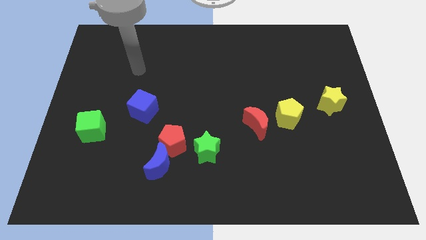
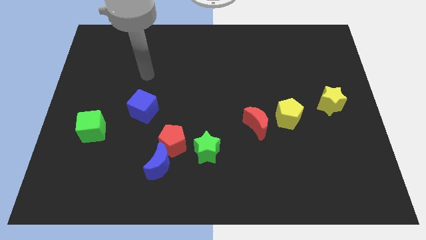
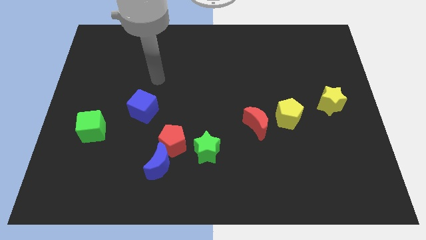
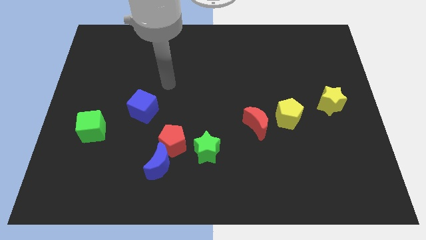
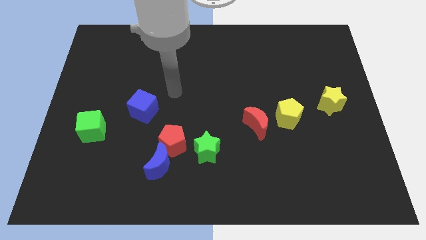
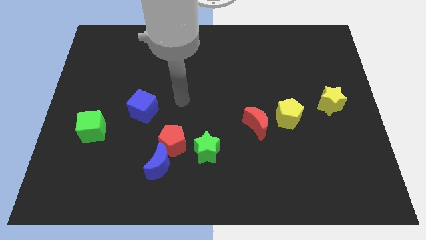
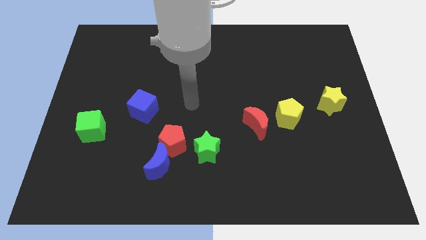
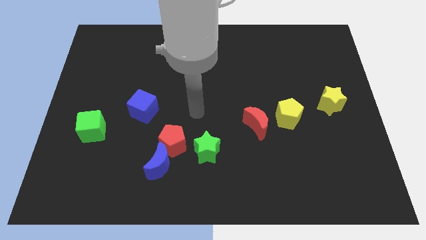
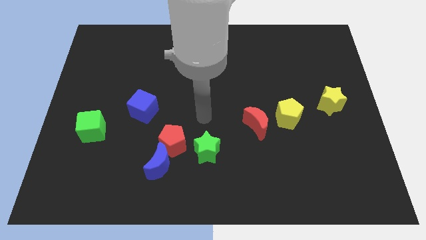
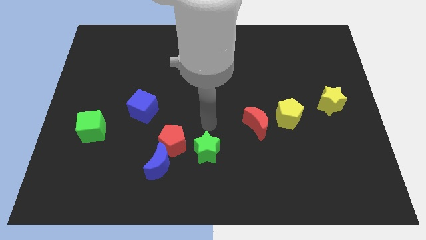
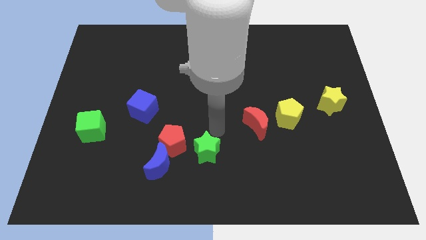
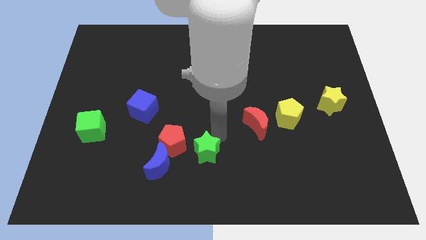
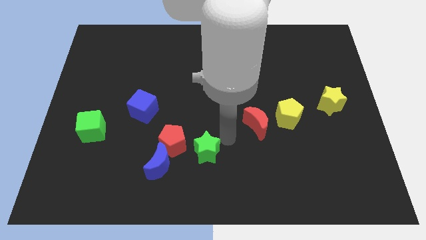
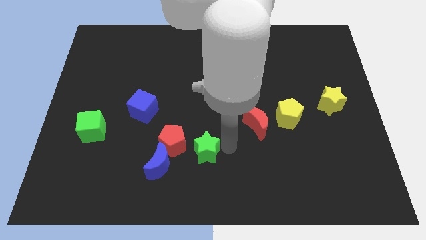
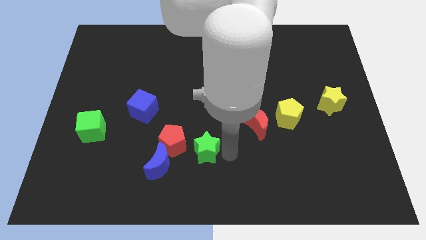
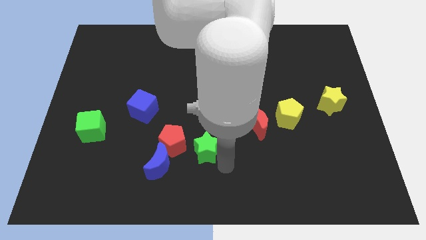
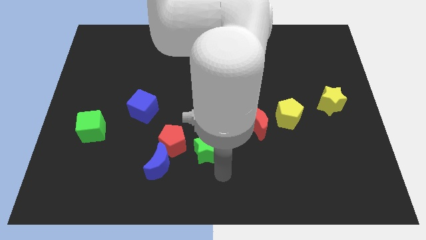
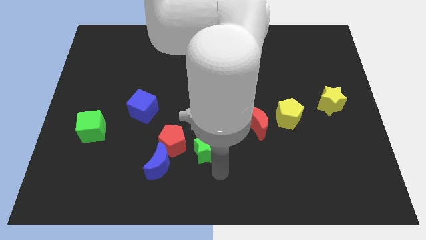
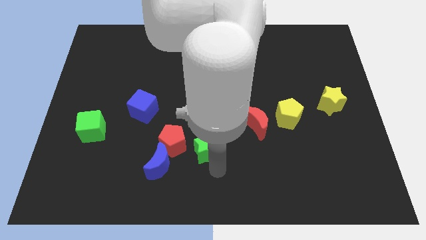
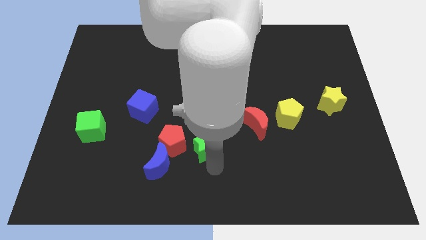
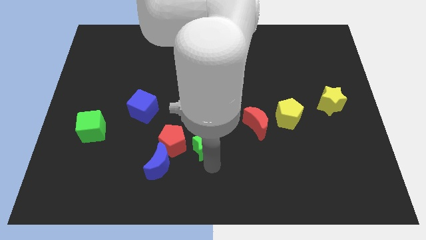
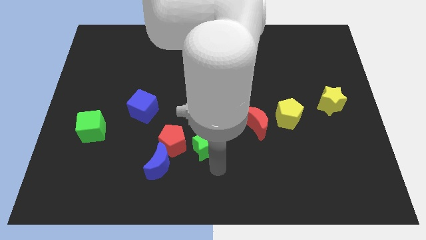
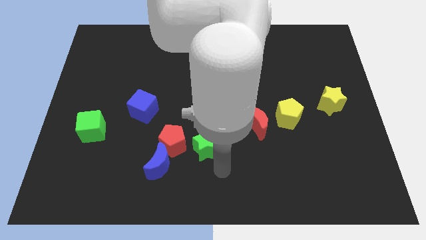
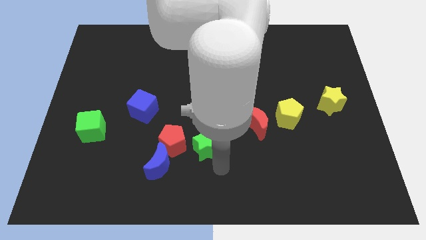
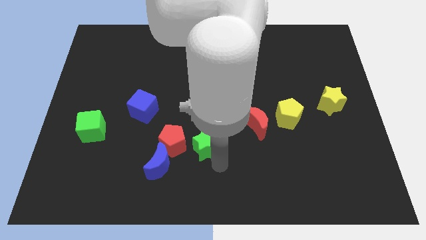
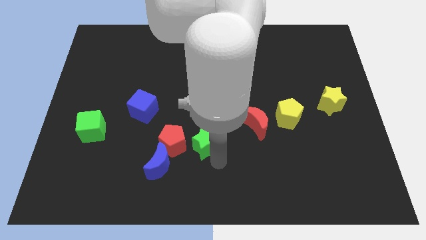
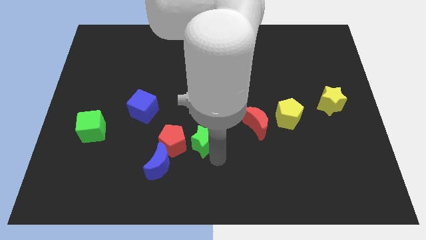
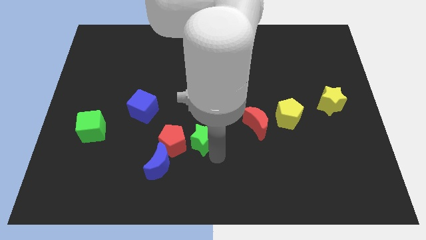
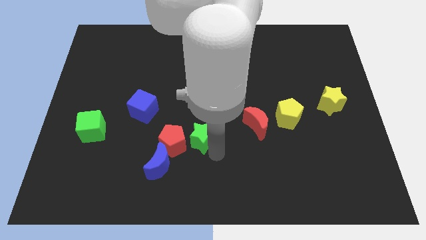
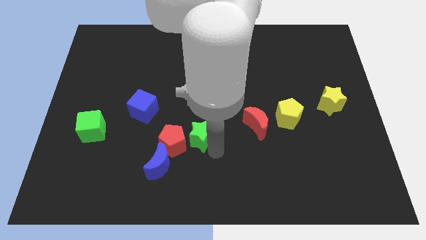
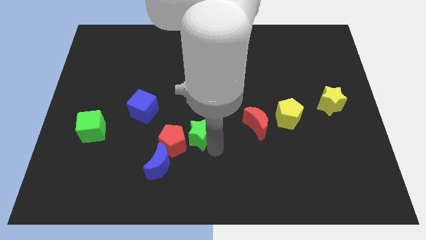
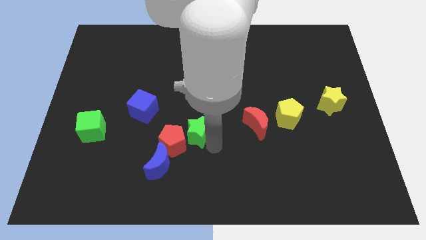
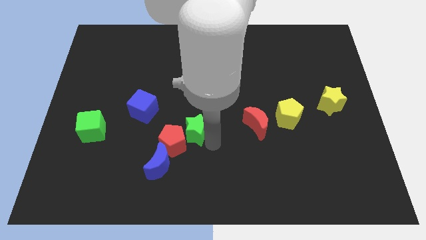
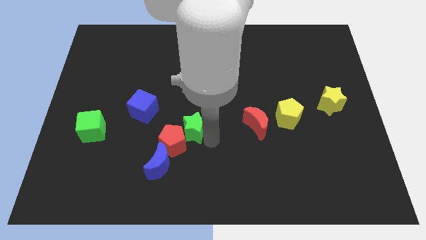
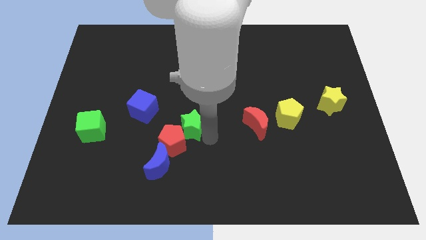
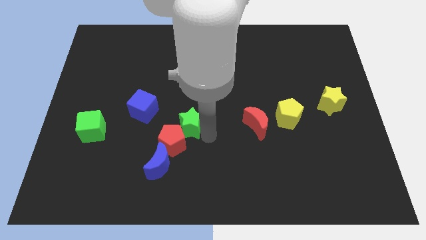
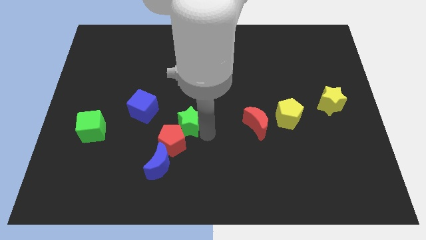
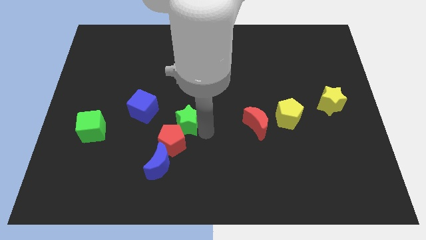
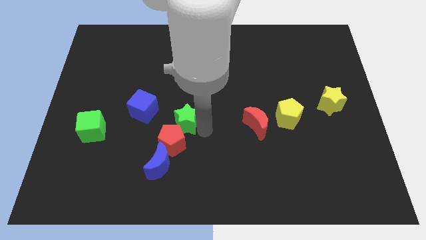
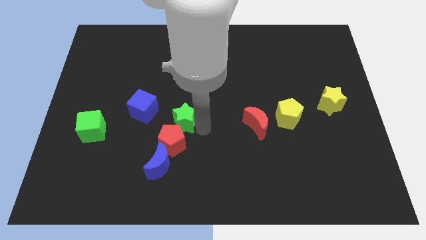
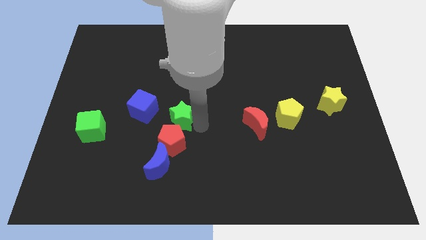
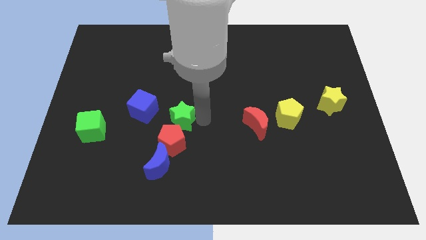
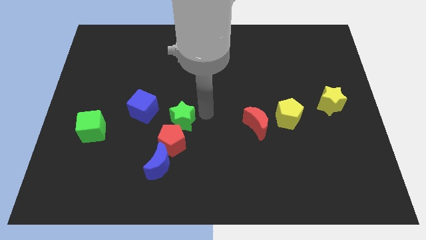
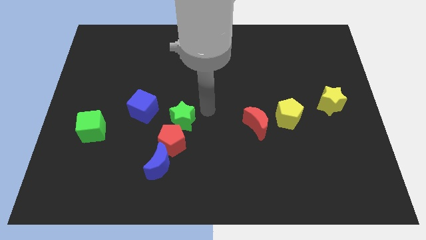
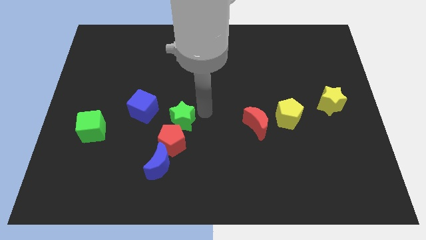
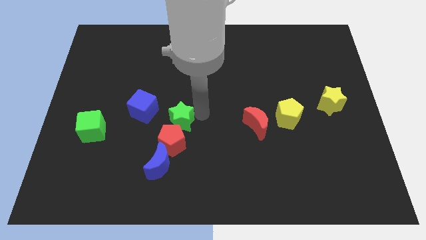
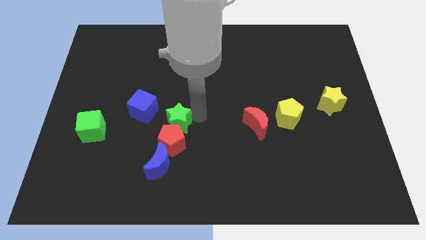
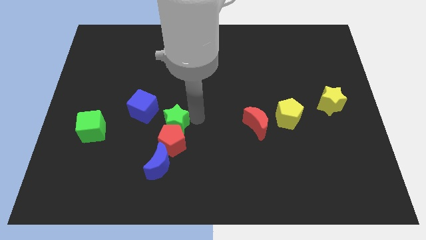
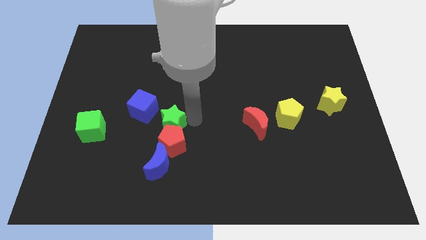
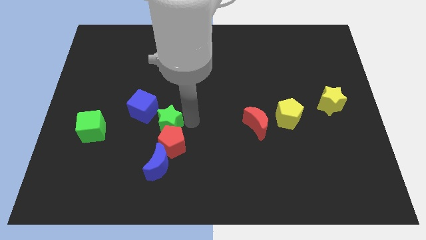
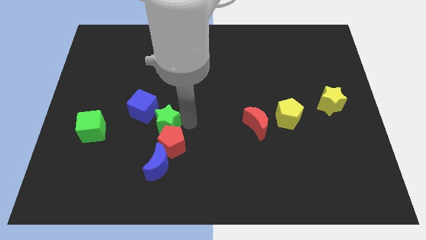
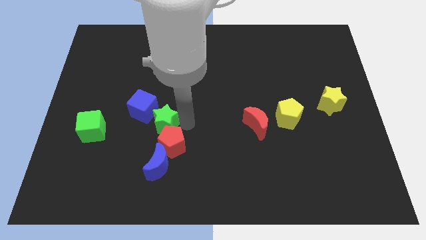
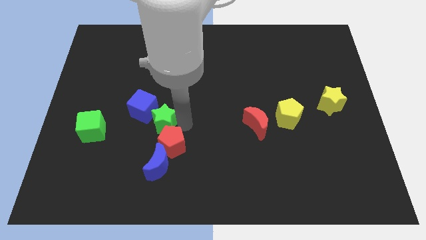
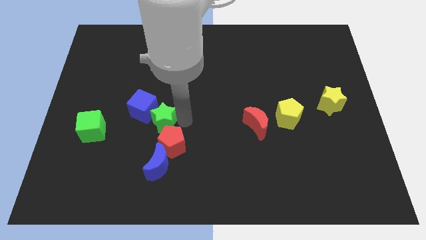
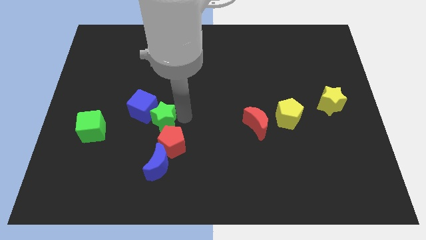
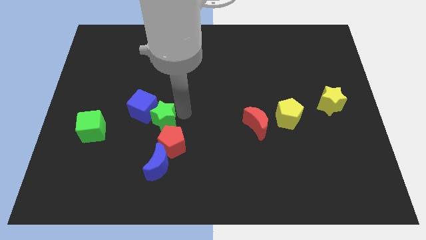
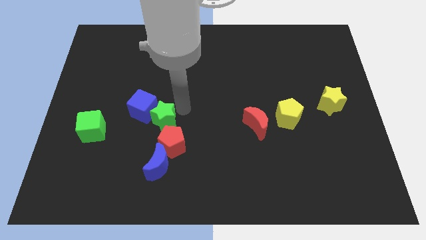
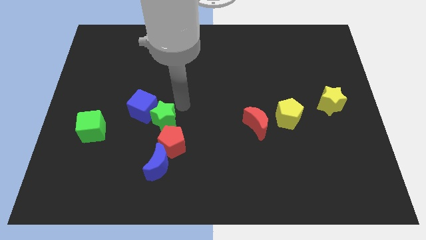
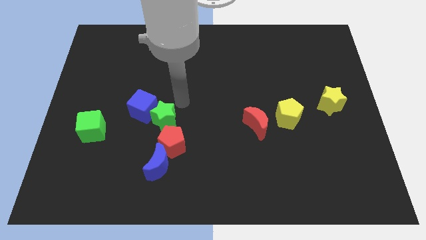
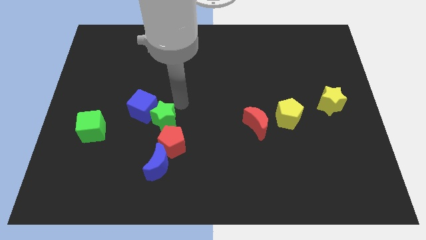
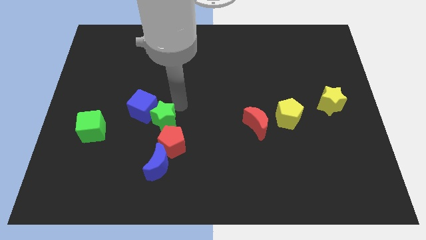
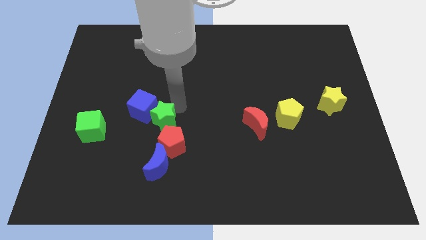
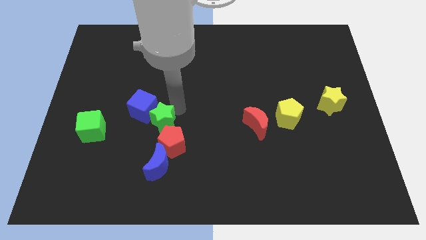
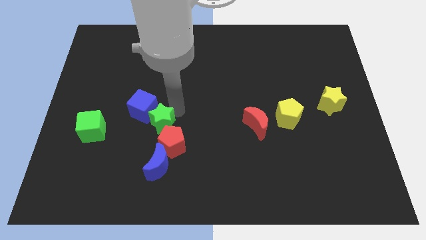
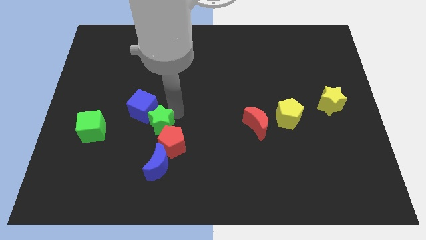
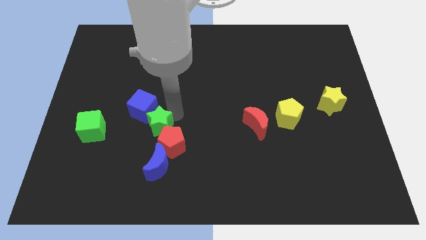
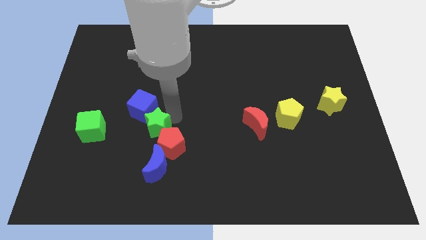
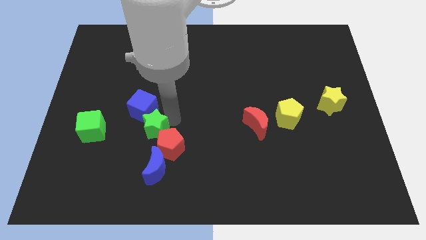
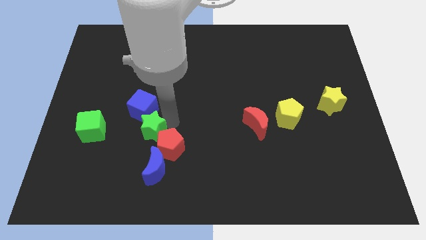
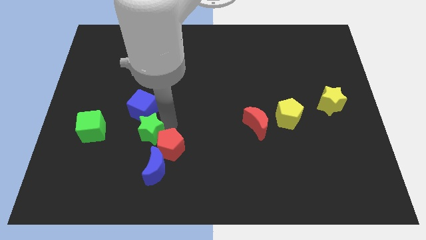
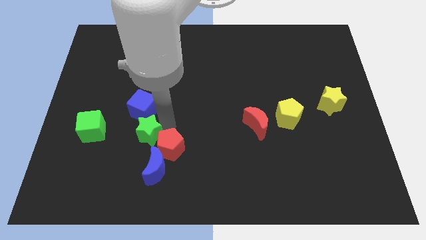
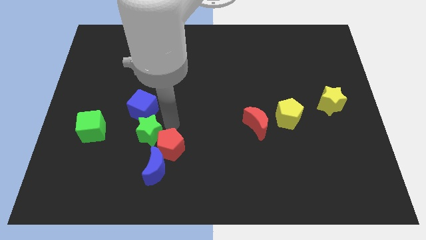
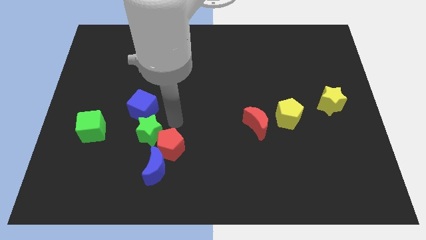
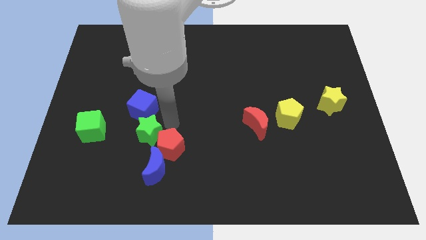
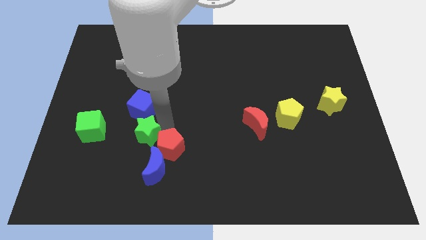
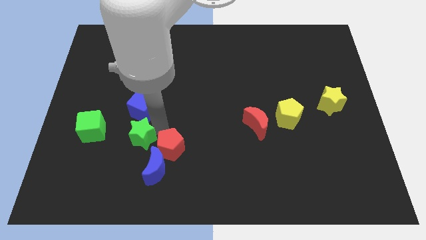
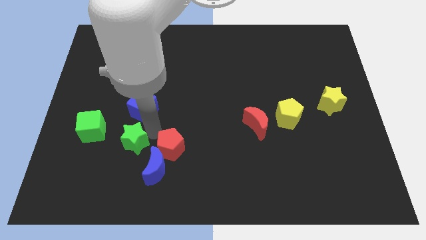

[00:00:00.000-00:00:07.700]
slide the green star to the bottom right side of the green cube
